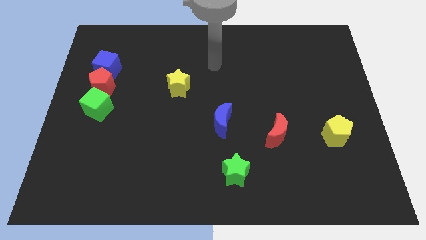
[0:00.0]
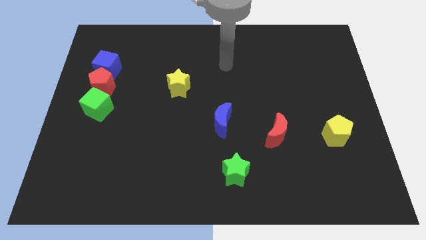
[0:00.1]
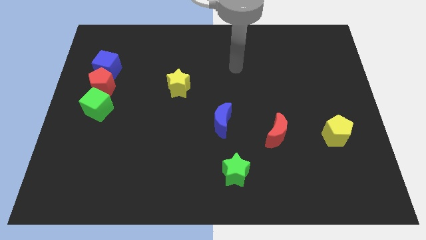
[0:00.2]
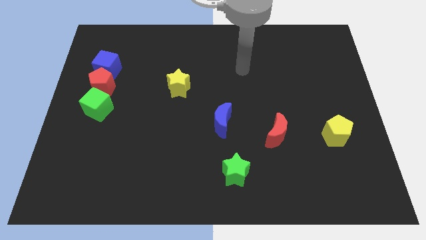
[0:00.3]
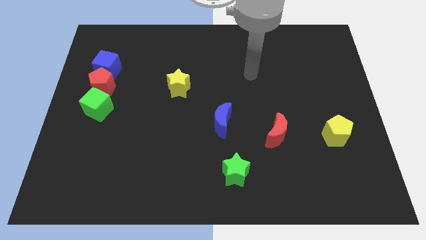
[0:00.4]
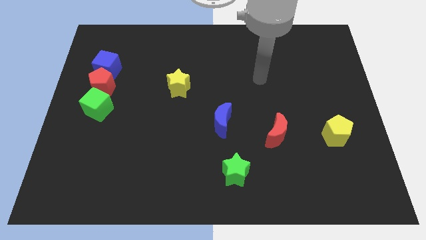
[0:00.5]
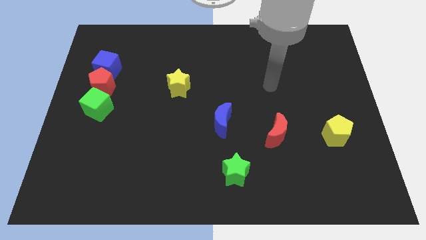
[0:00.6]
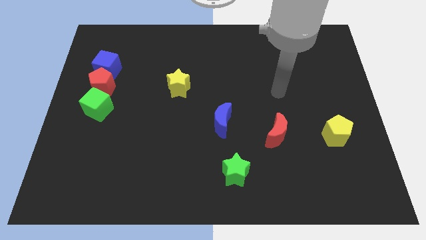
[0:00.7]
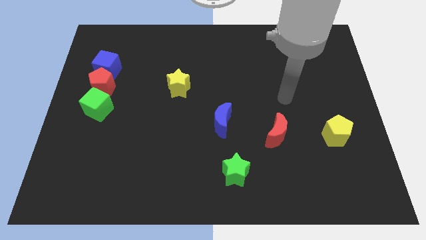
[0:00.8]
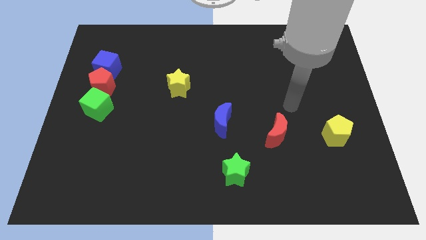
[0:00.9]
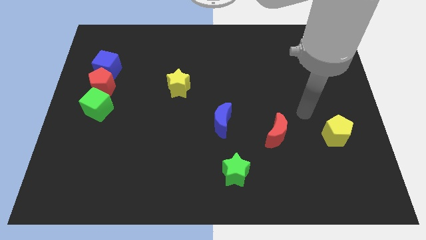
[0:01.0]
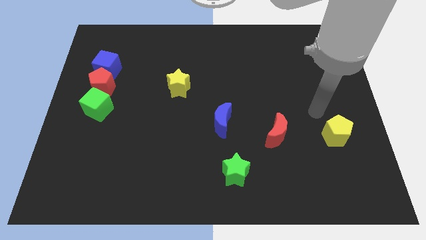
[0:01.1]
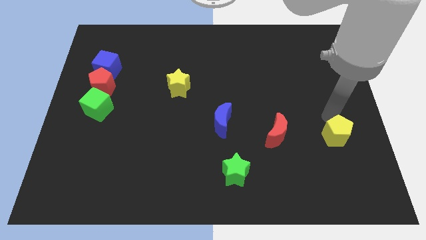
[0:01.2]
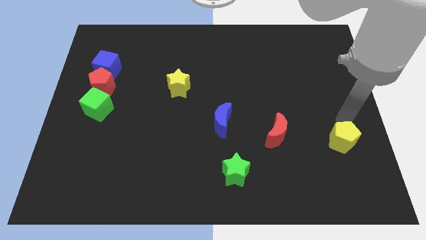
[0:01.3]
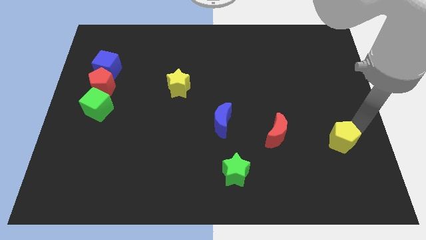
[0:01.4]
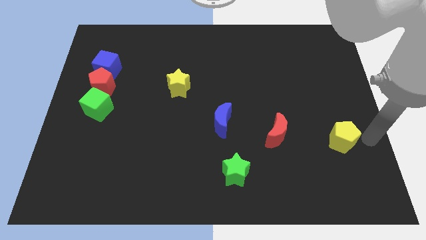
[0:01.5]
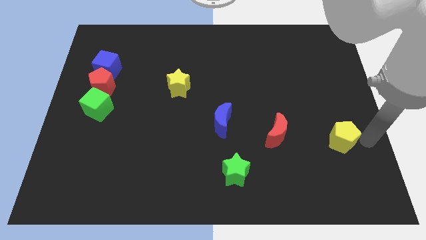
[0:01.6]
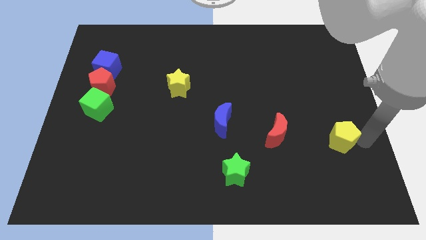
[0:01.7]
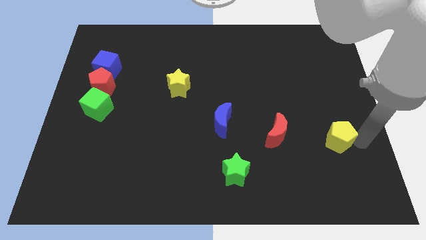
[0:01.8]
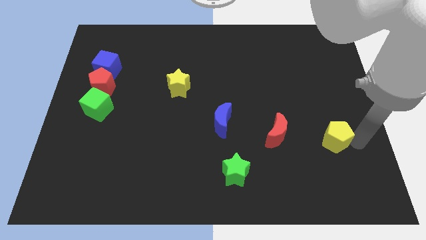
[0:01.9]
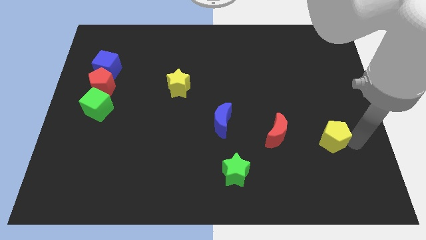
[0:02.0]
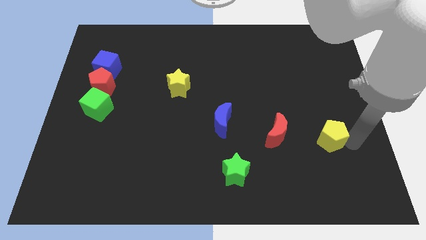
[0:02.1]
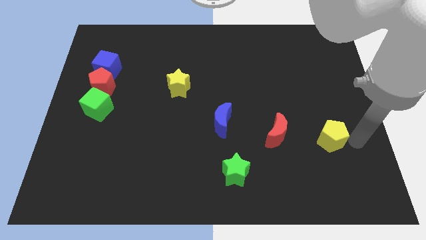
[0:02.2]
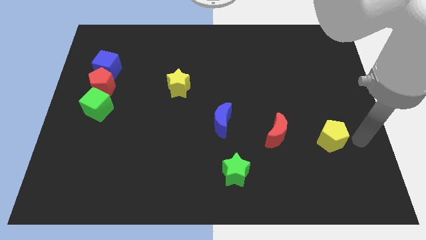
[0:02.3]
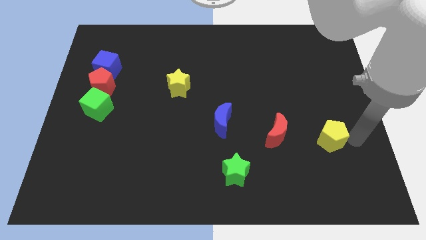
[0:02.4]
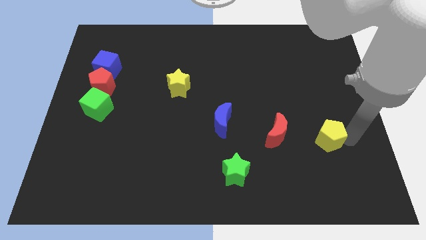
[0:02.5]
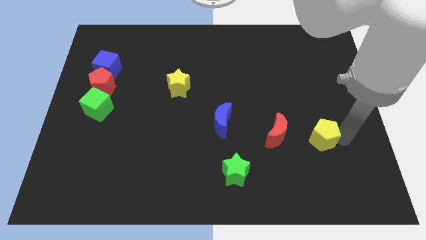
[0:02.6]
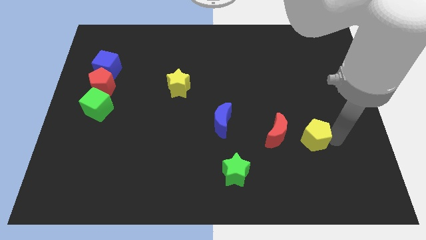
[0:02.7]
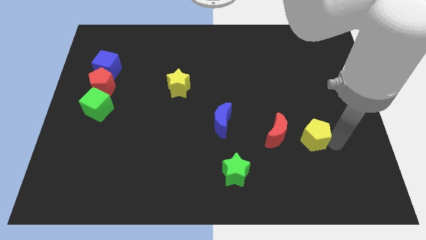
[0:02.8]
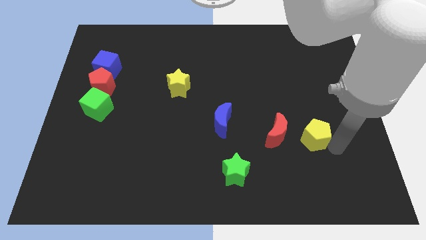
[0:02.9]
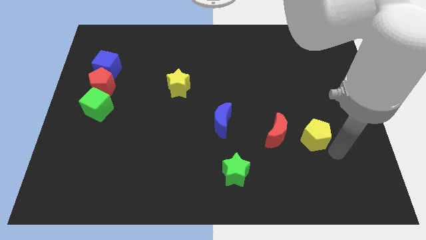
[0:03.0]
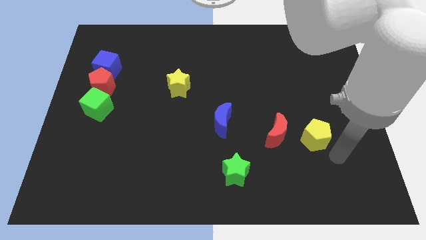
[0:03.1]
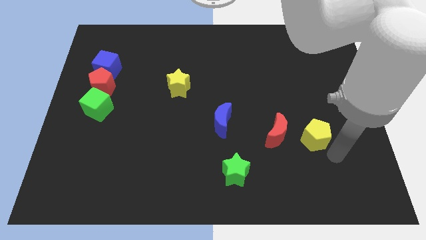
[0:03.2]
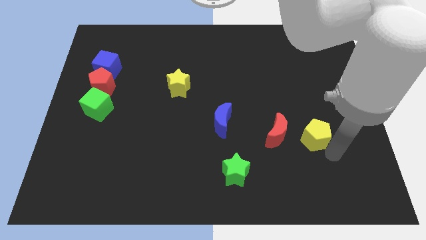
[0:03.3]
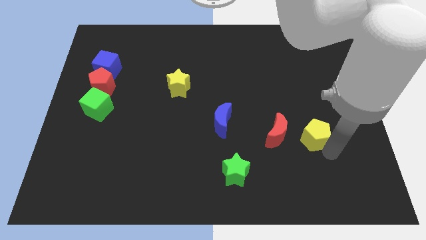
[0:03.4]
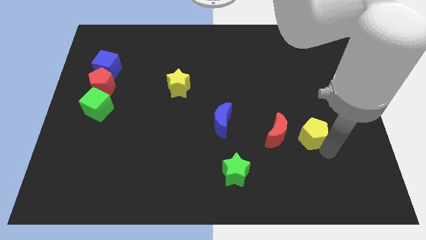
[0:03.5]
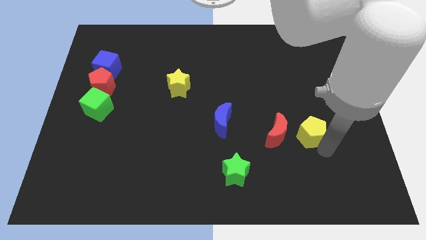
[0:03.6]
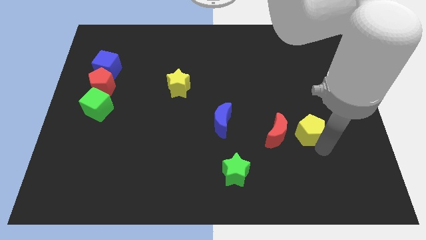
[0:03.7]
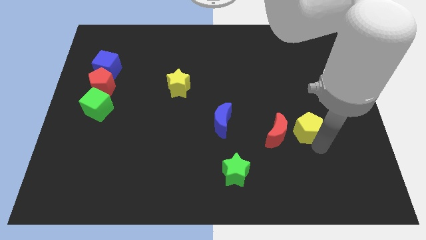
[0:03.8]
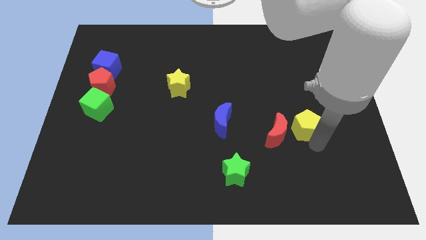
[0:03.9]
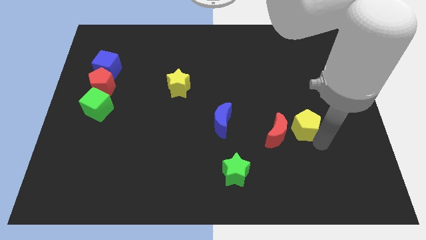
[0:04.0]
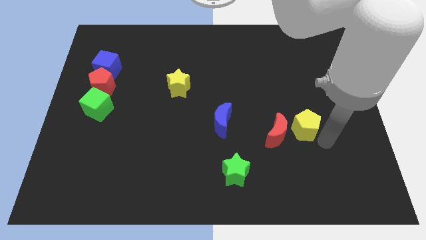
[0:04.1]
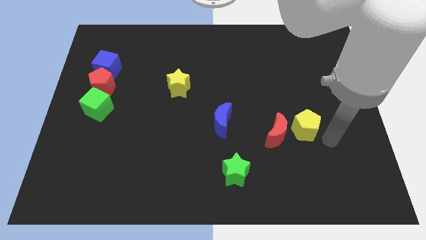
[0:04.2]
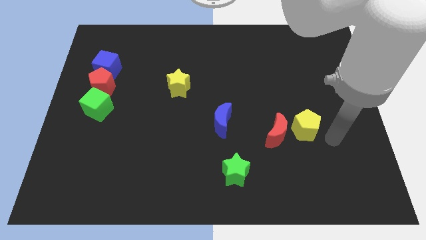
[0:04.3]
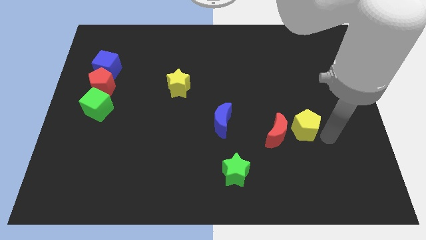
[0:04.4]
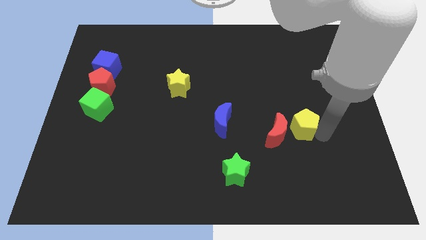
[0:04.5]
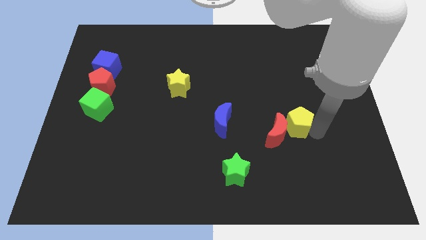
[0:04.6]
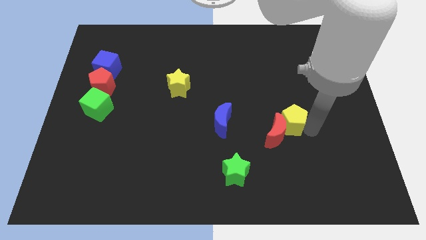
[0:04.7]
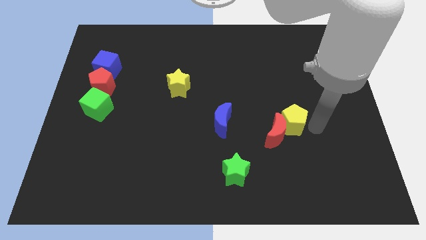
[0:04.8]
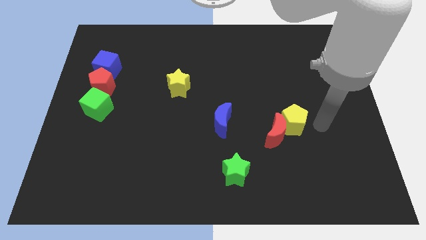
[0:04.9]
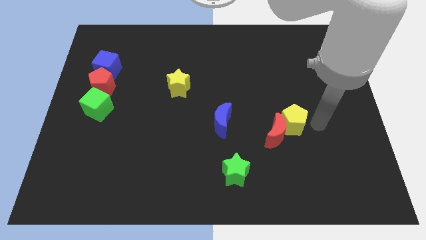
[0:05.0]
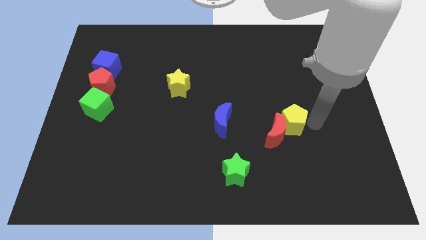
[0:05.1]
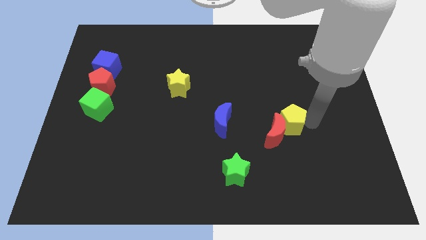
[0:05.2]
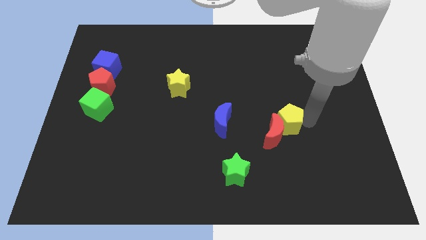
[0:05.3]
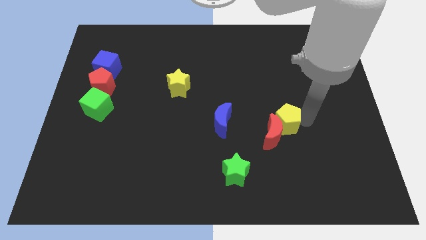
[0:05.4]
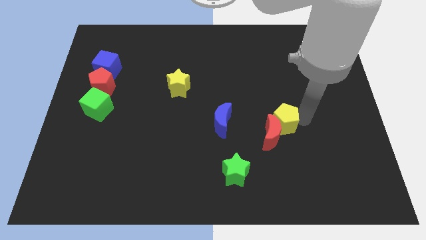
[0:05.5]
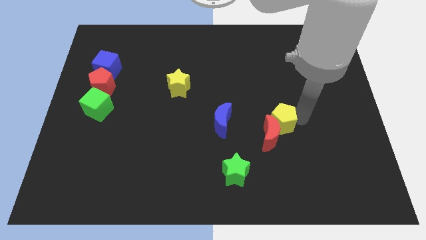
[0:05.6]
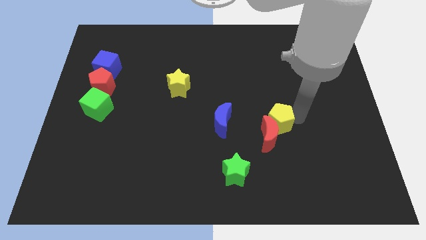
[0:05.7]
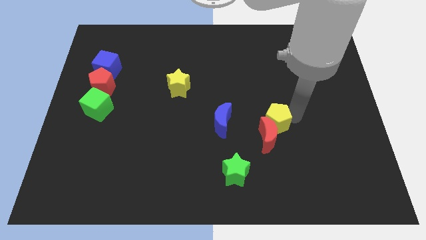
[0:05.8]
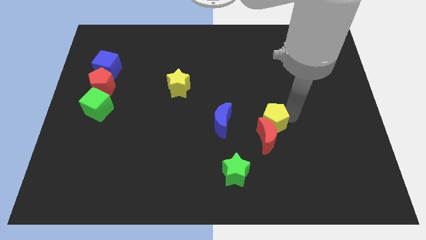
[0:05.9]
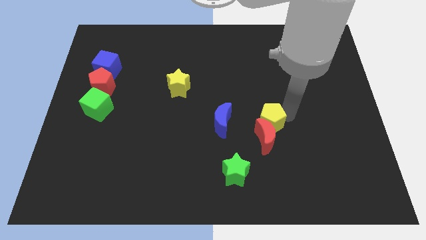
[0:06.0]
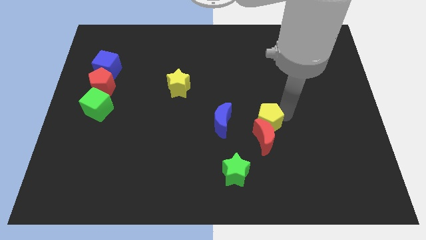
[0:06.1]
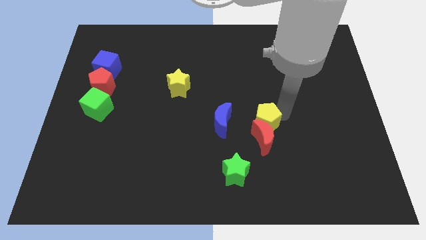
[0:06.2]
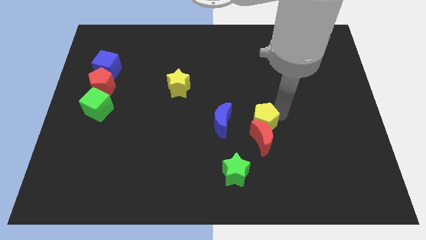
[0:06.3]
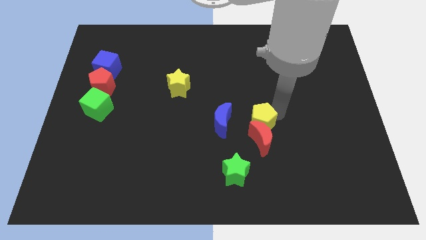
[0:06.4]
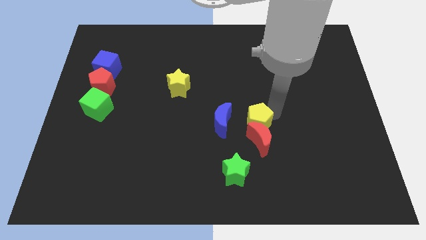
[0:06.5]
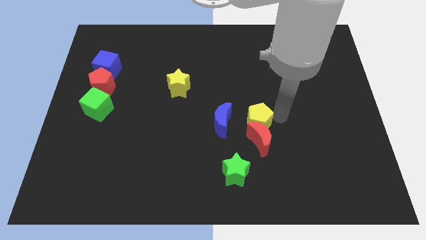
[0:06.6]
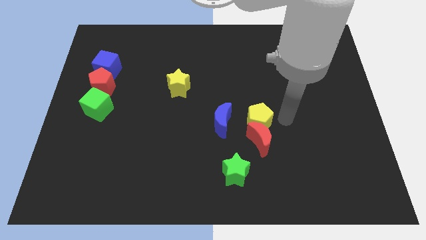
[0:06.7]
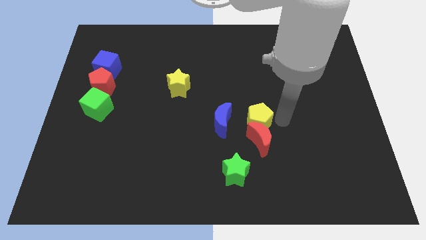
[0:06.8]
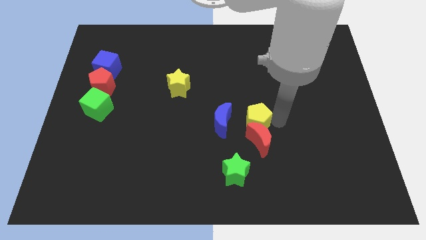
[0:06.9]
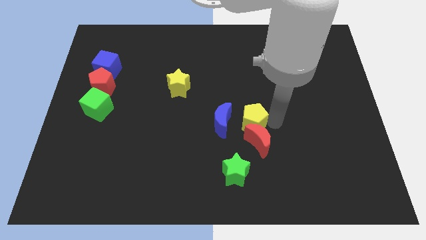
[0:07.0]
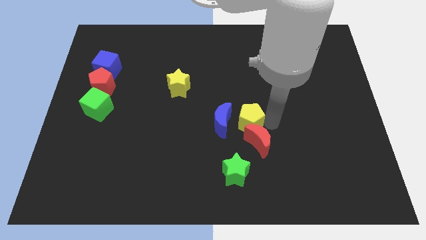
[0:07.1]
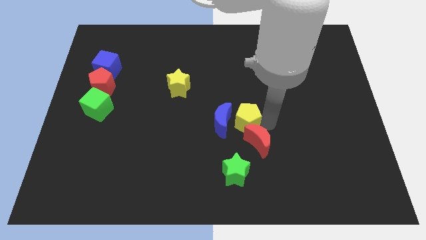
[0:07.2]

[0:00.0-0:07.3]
move the yellow pentagon towards the blue moon
